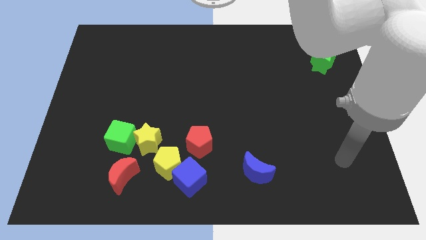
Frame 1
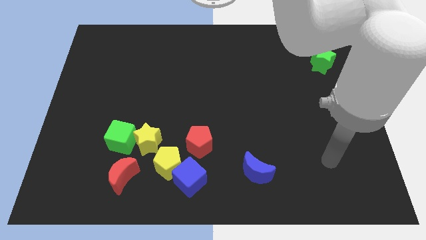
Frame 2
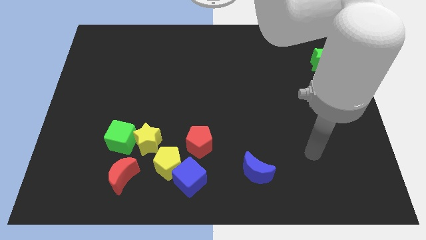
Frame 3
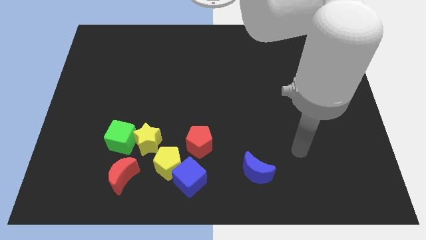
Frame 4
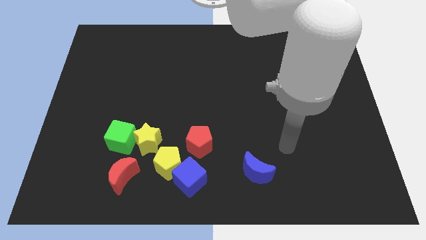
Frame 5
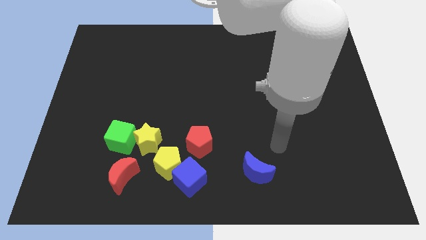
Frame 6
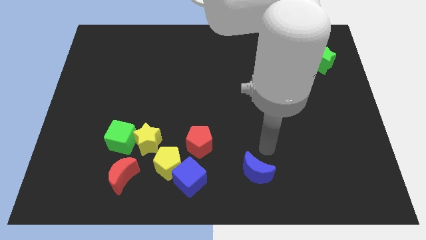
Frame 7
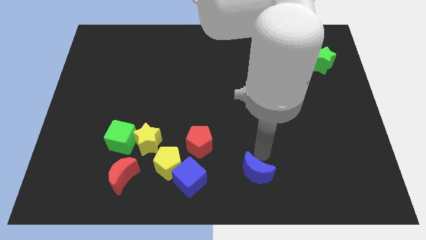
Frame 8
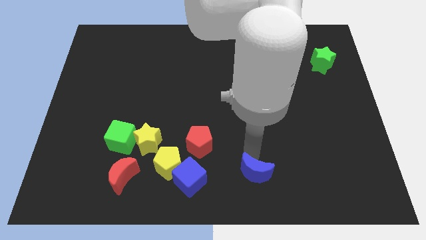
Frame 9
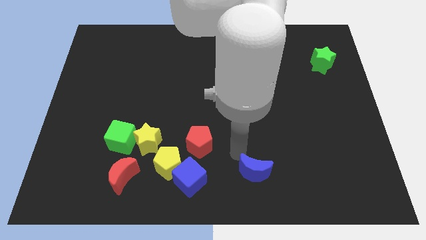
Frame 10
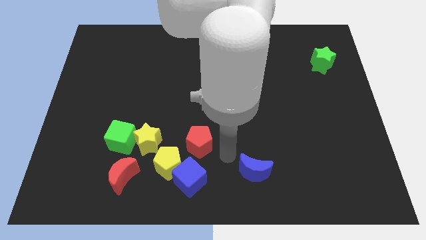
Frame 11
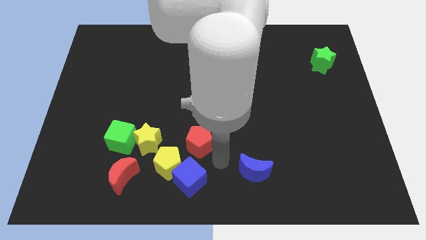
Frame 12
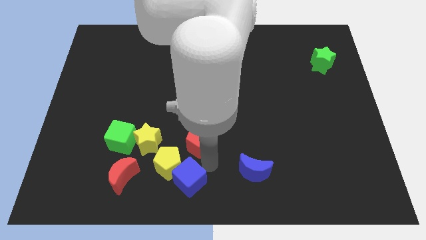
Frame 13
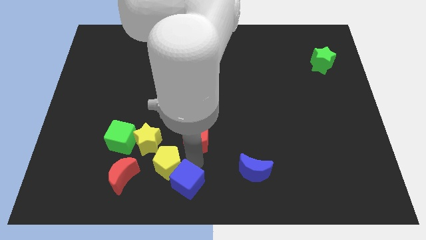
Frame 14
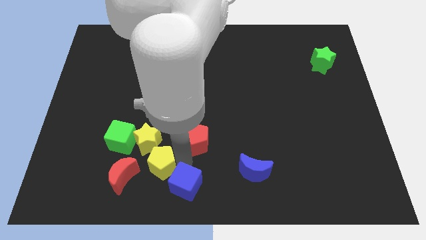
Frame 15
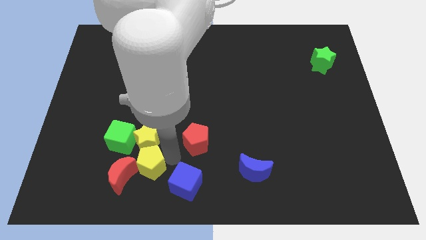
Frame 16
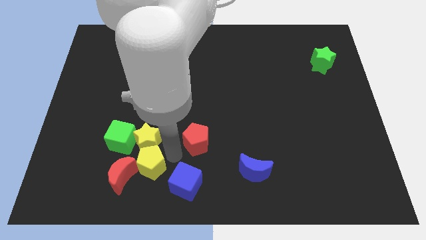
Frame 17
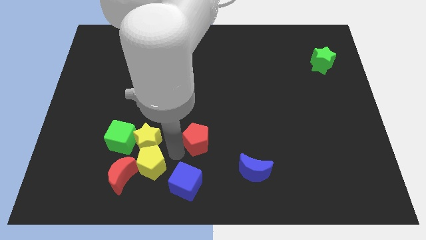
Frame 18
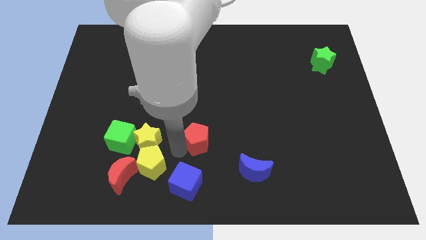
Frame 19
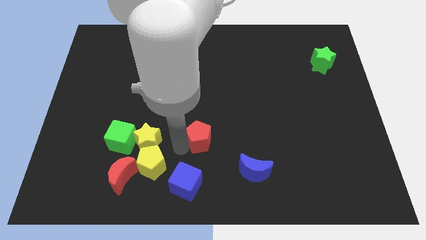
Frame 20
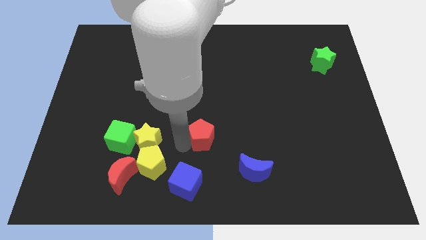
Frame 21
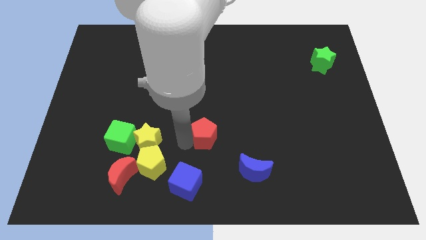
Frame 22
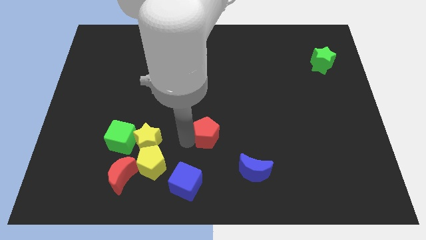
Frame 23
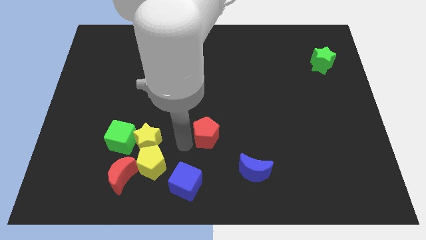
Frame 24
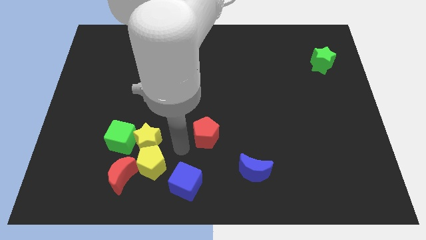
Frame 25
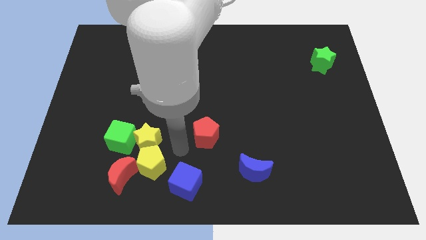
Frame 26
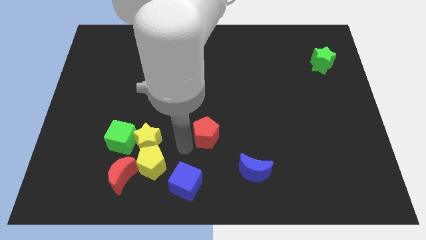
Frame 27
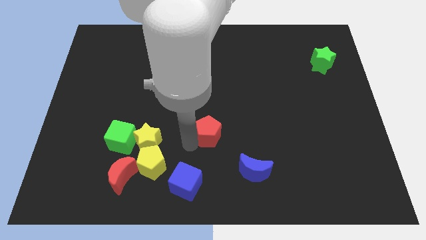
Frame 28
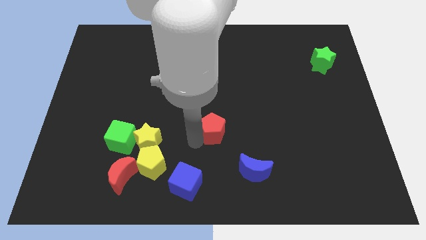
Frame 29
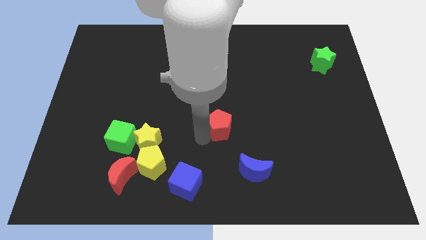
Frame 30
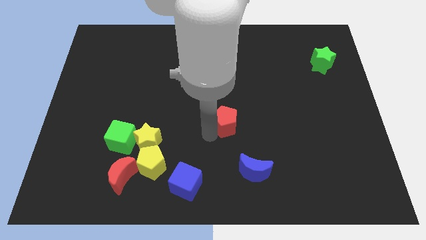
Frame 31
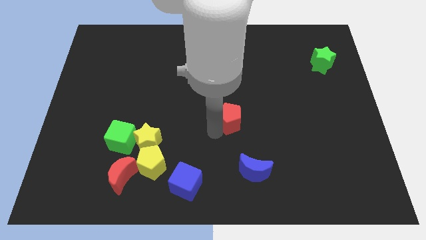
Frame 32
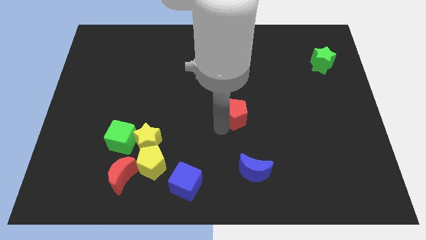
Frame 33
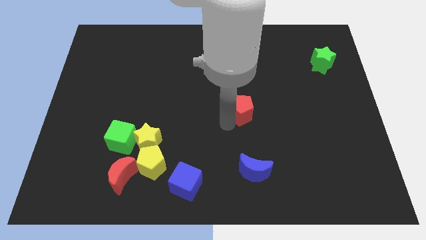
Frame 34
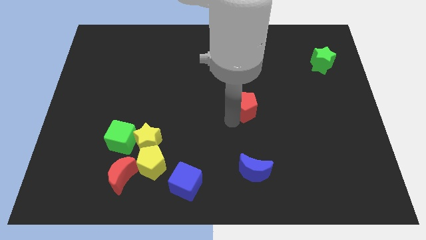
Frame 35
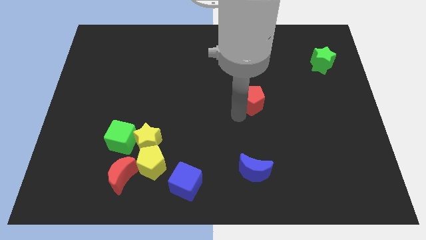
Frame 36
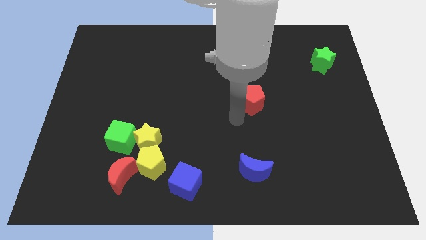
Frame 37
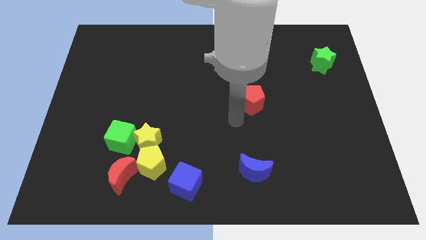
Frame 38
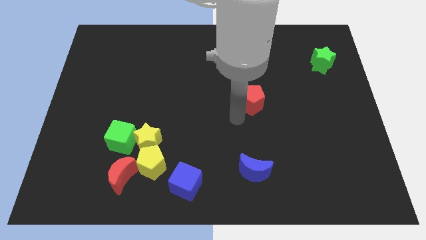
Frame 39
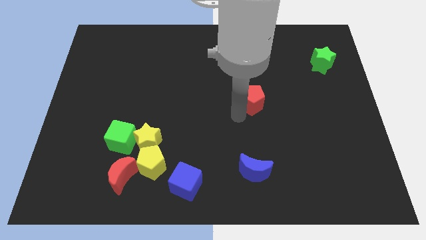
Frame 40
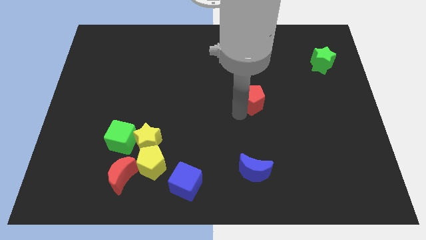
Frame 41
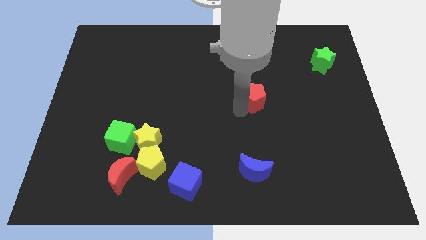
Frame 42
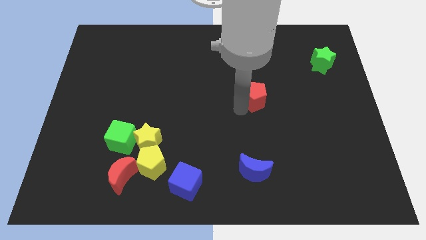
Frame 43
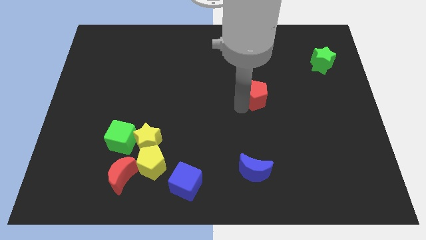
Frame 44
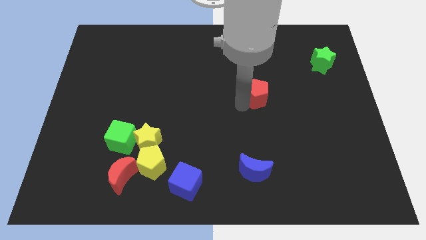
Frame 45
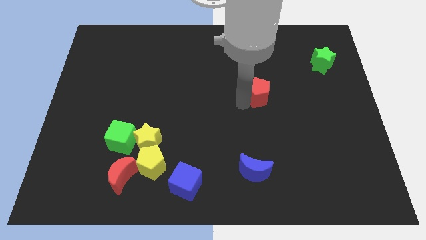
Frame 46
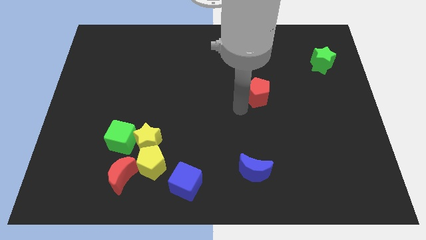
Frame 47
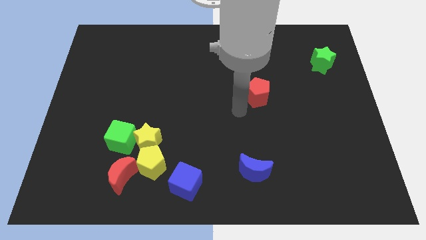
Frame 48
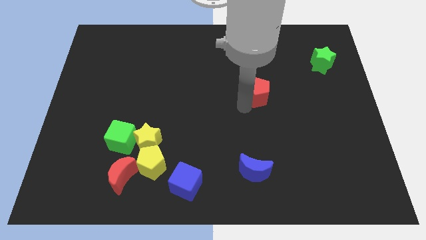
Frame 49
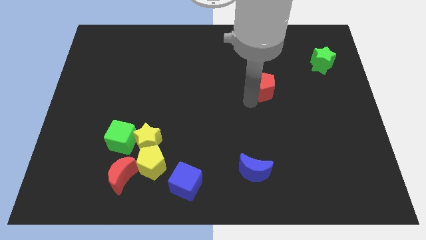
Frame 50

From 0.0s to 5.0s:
slide the red pentagon upwards and then right

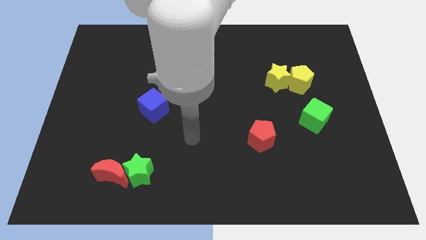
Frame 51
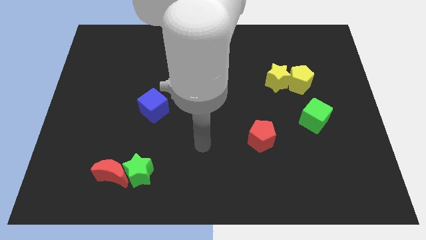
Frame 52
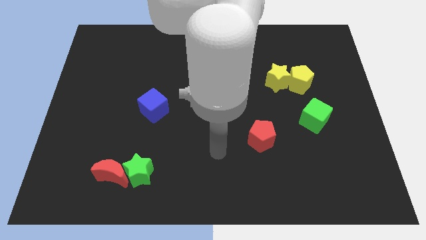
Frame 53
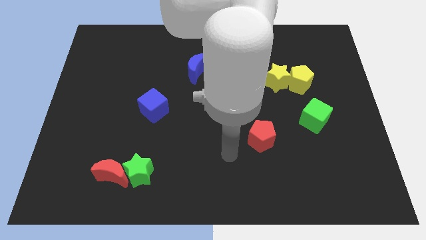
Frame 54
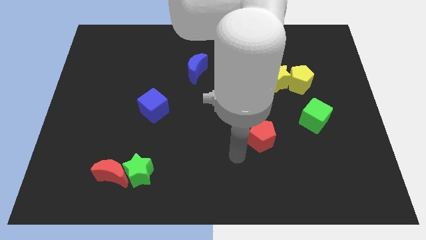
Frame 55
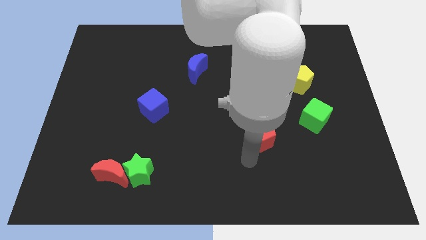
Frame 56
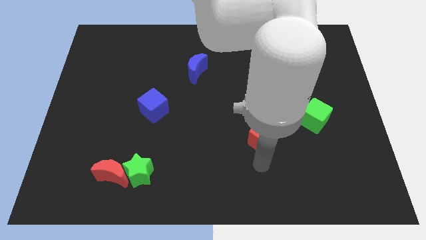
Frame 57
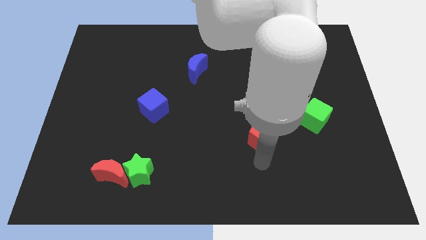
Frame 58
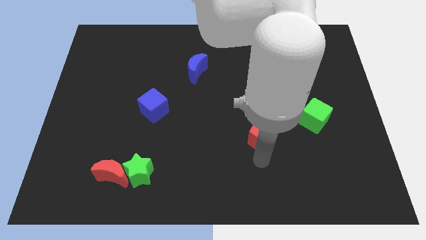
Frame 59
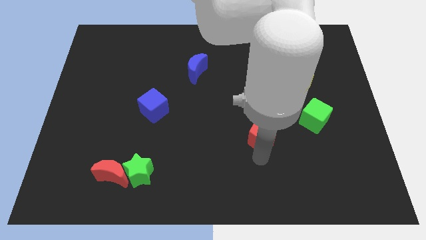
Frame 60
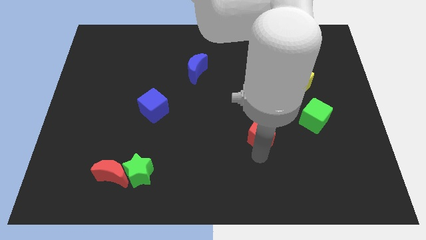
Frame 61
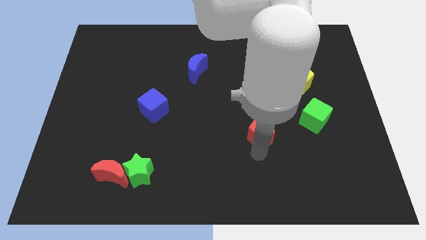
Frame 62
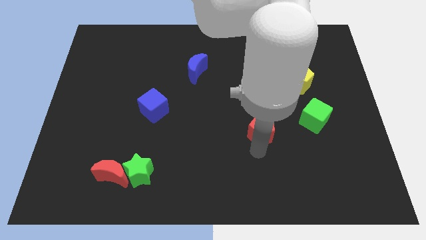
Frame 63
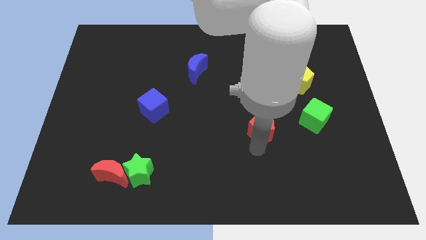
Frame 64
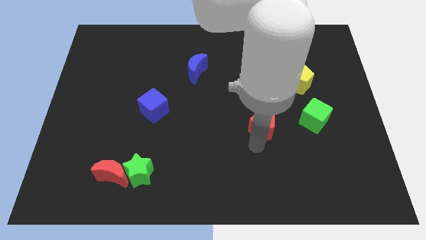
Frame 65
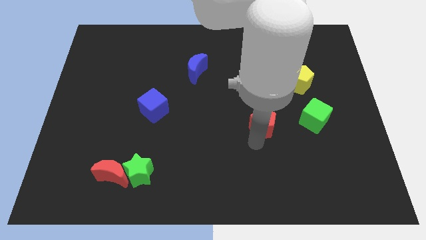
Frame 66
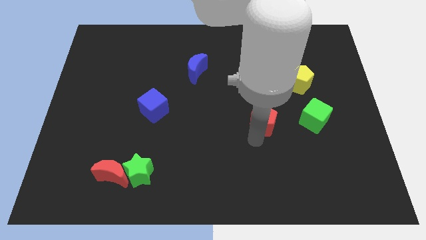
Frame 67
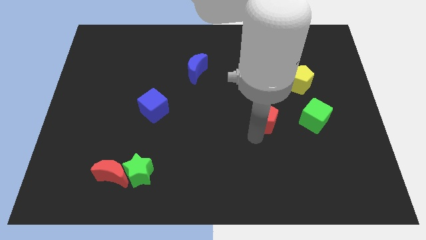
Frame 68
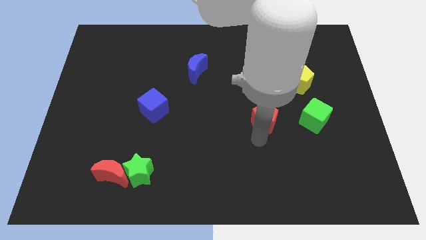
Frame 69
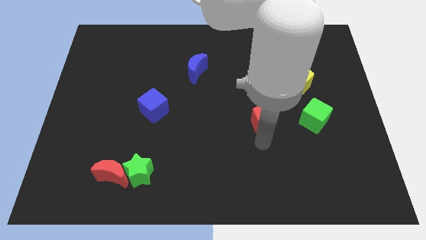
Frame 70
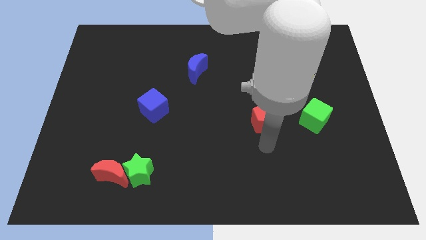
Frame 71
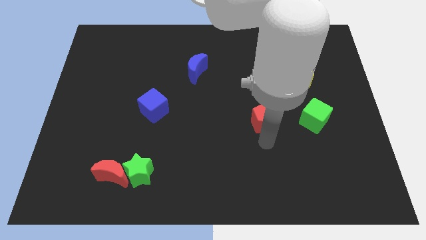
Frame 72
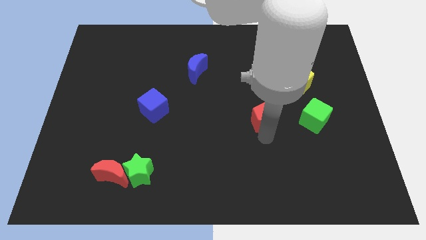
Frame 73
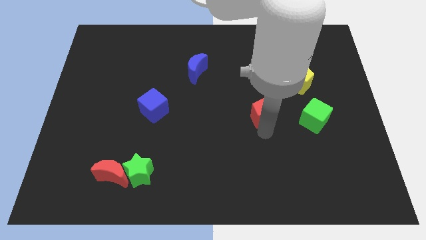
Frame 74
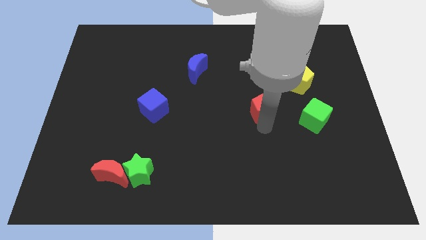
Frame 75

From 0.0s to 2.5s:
slide the red pentagon upwards somewhat

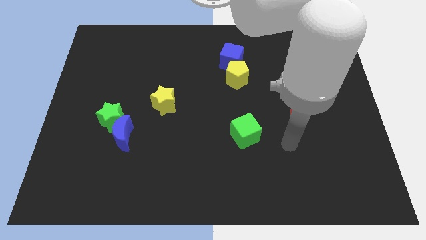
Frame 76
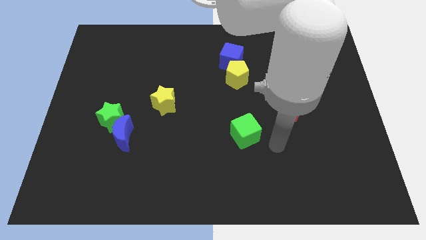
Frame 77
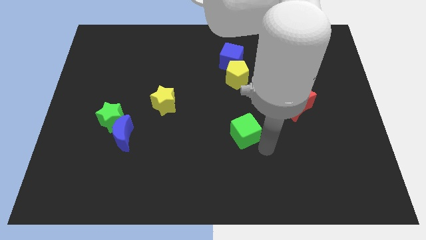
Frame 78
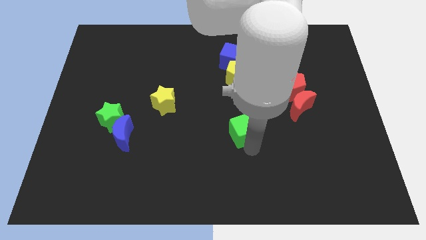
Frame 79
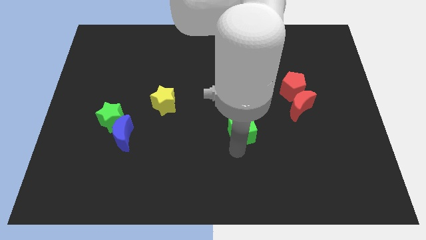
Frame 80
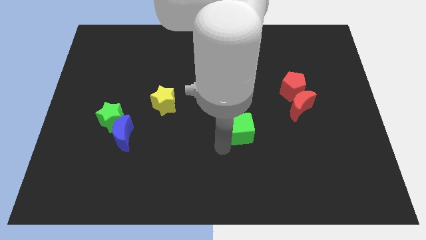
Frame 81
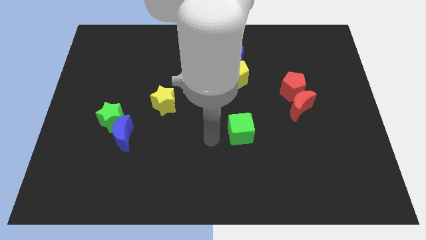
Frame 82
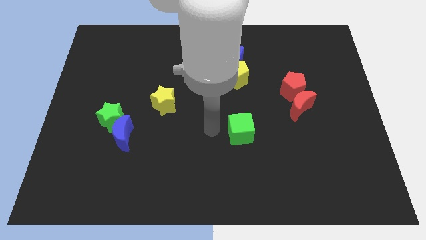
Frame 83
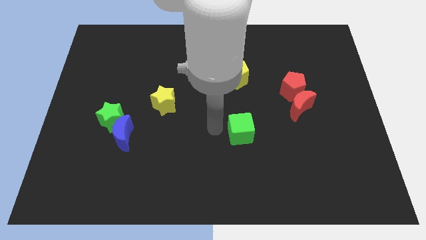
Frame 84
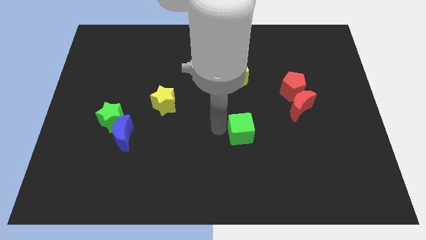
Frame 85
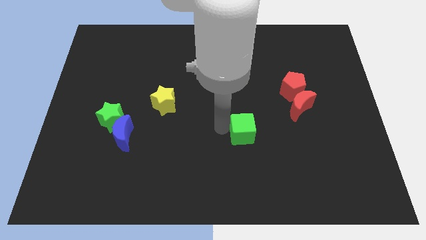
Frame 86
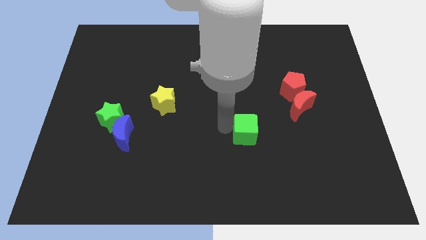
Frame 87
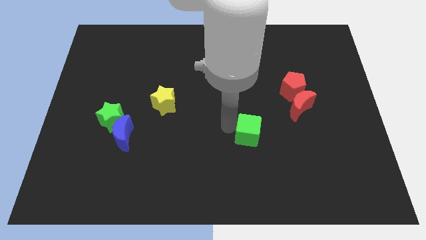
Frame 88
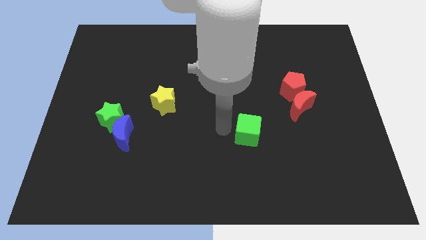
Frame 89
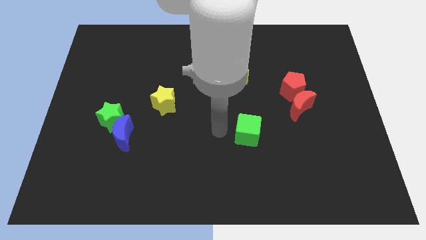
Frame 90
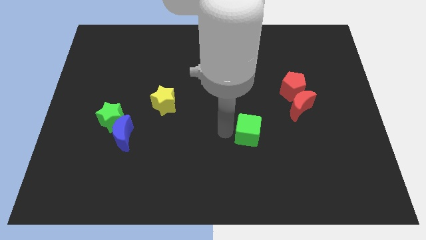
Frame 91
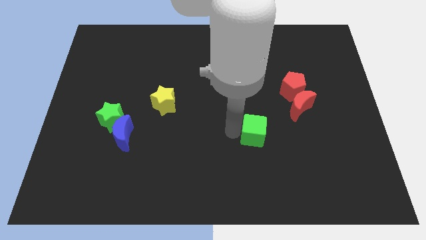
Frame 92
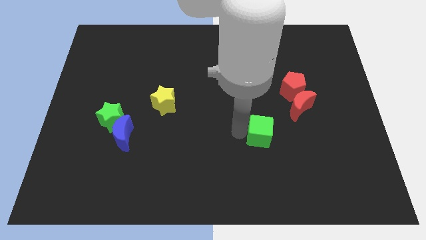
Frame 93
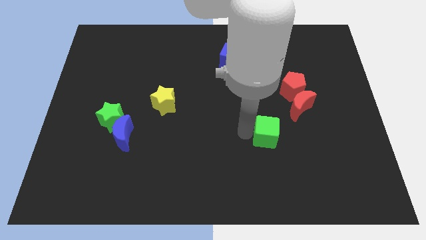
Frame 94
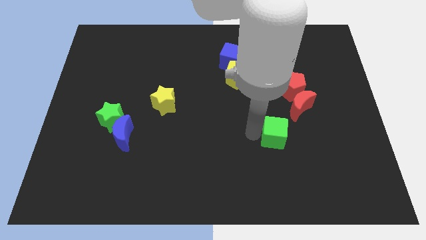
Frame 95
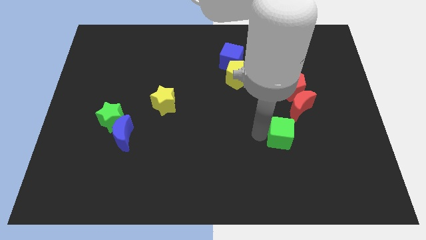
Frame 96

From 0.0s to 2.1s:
slightly move the green cube to the right
